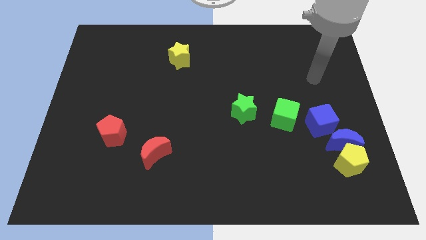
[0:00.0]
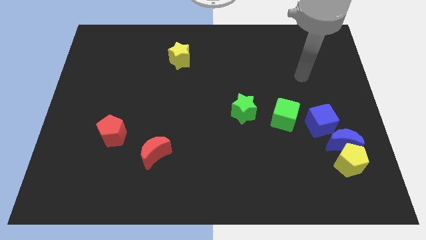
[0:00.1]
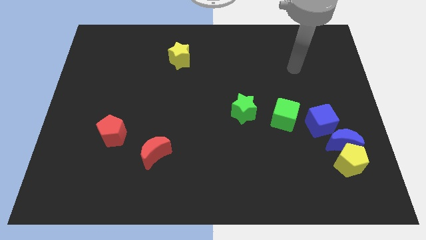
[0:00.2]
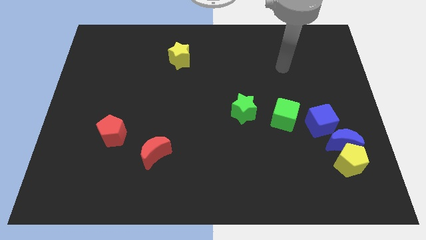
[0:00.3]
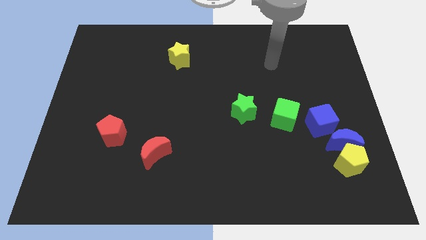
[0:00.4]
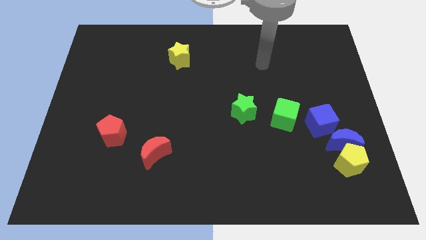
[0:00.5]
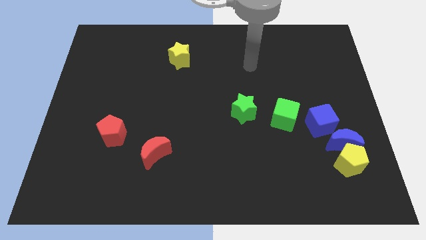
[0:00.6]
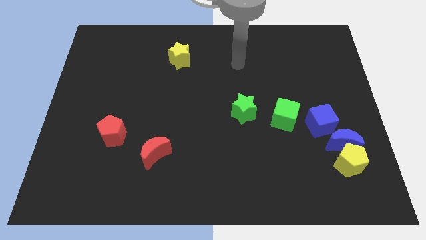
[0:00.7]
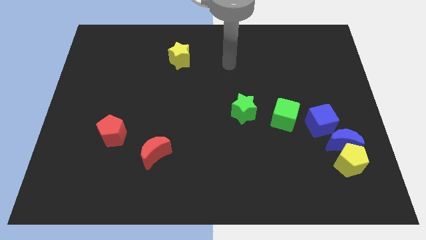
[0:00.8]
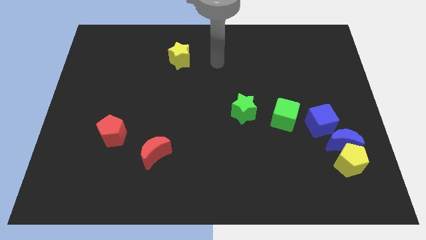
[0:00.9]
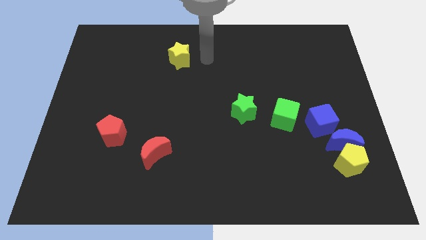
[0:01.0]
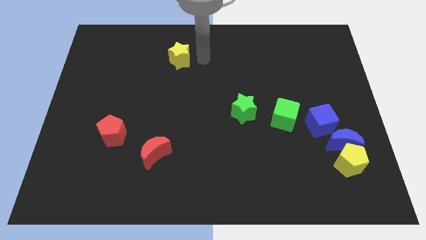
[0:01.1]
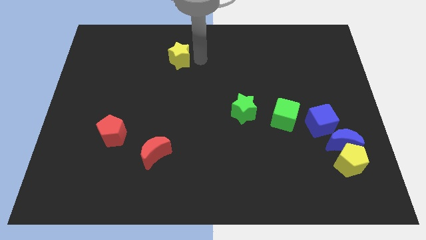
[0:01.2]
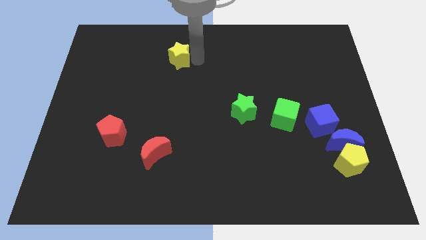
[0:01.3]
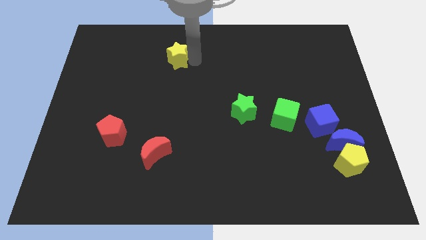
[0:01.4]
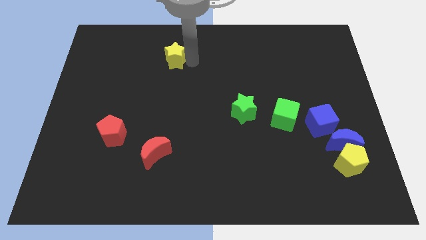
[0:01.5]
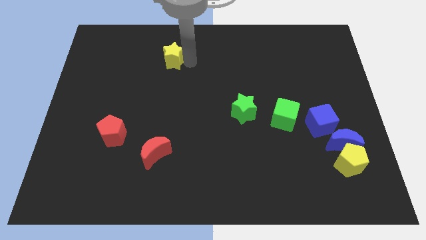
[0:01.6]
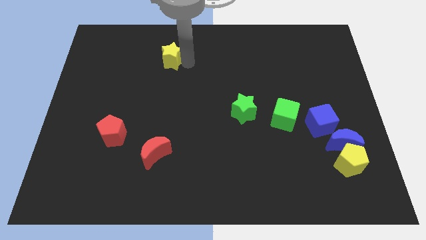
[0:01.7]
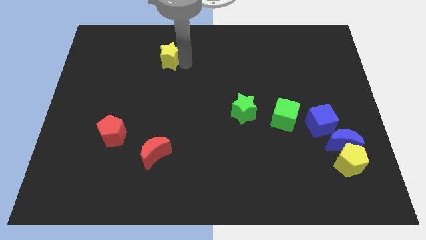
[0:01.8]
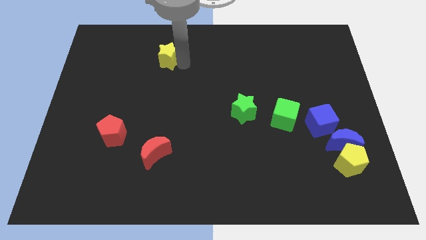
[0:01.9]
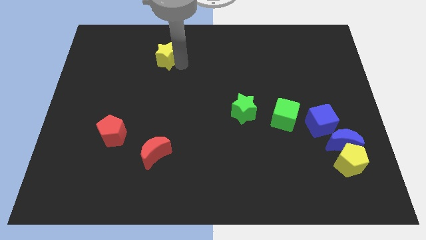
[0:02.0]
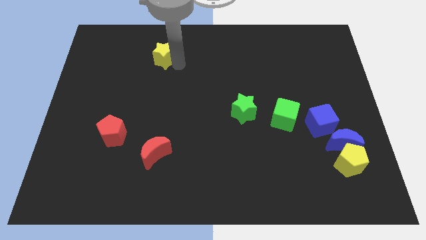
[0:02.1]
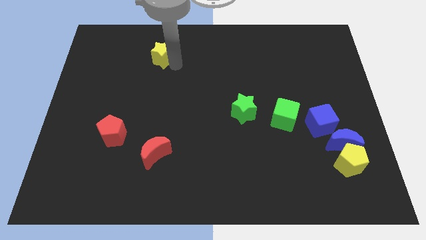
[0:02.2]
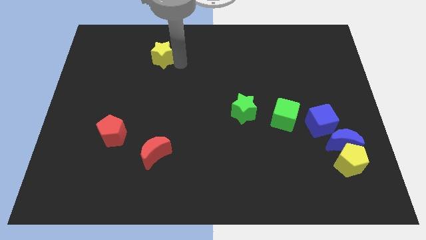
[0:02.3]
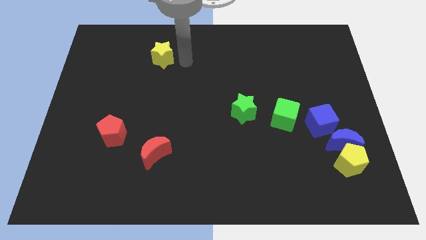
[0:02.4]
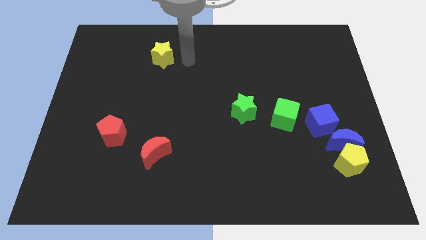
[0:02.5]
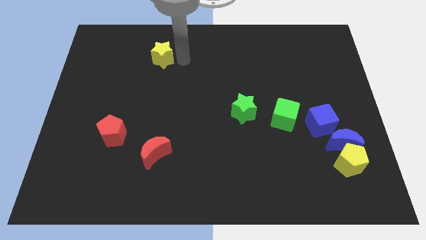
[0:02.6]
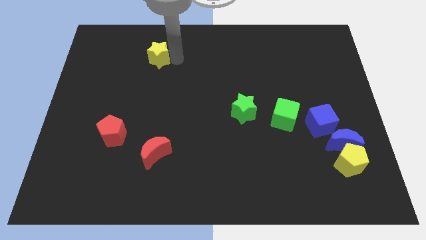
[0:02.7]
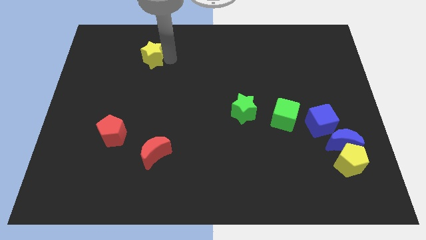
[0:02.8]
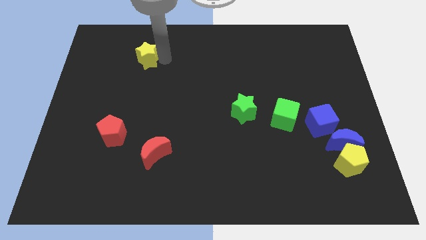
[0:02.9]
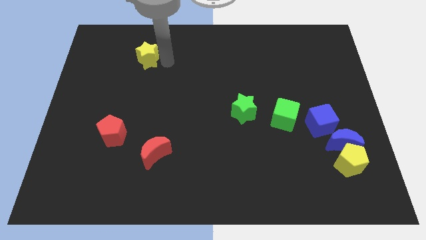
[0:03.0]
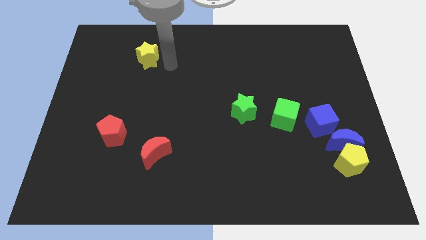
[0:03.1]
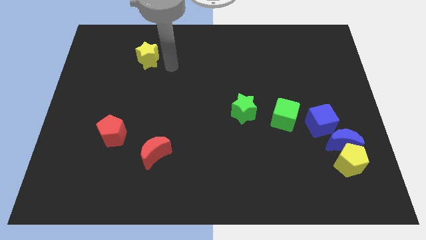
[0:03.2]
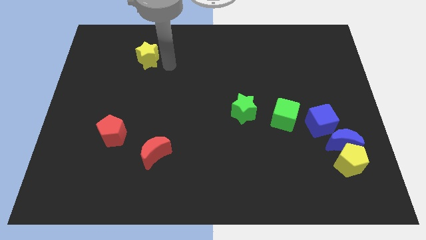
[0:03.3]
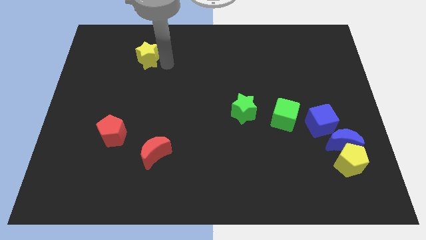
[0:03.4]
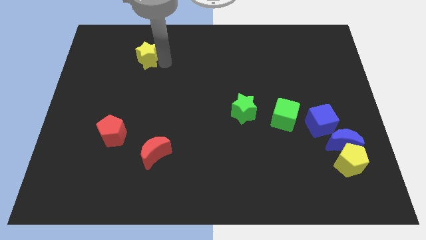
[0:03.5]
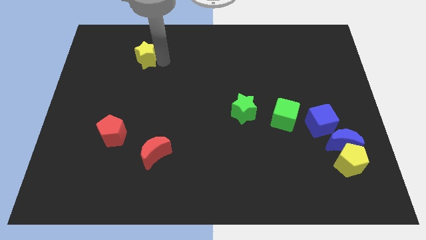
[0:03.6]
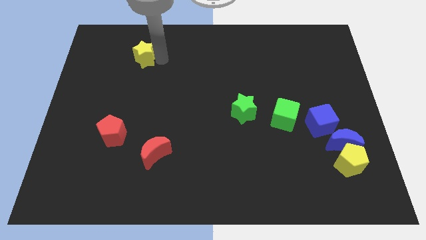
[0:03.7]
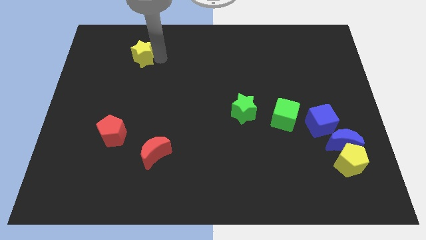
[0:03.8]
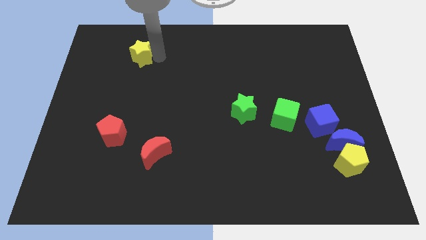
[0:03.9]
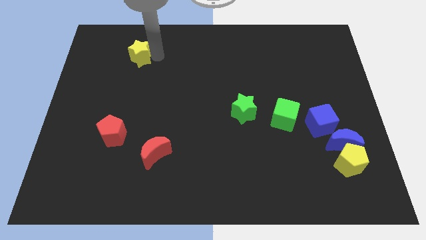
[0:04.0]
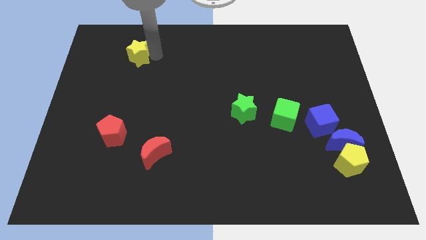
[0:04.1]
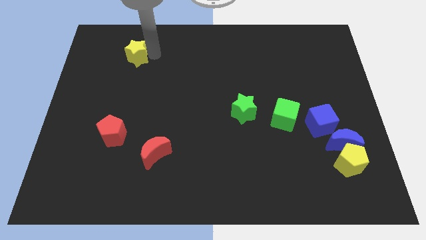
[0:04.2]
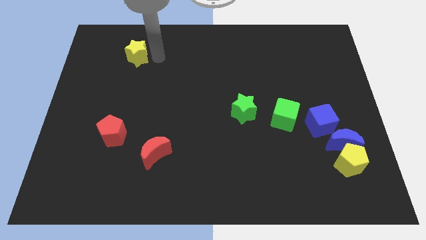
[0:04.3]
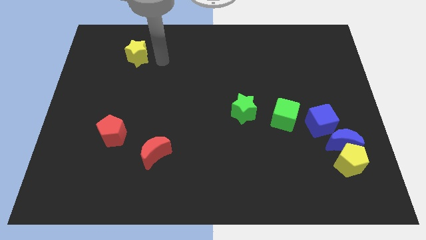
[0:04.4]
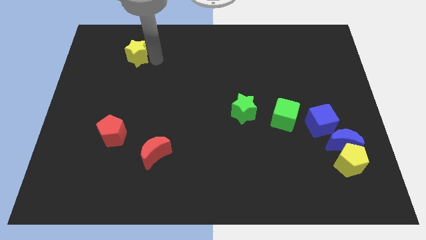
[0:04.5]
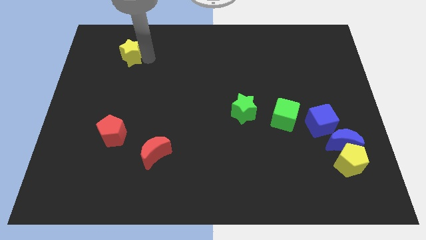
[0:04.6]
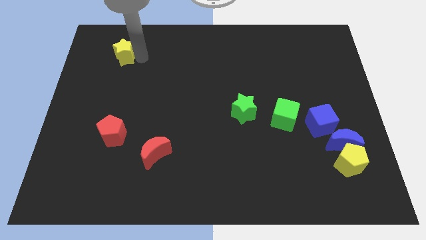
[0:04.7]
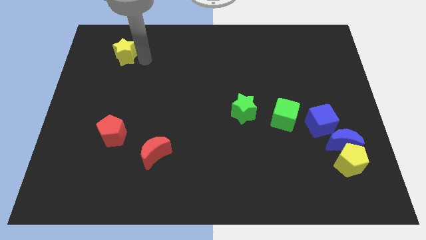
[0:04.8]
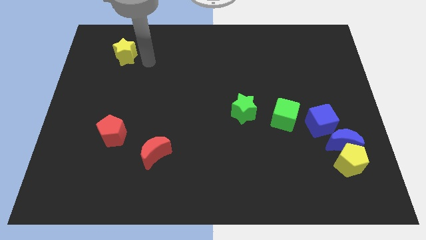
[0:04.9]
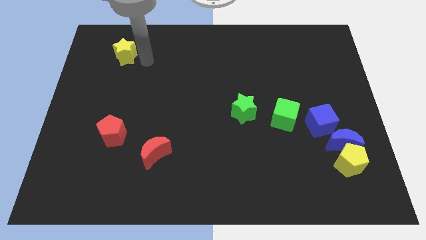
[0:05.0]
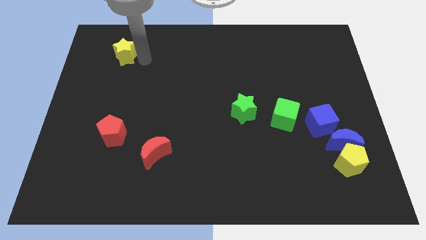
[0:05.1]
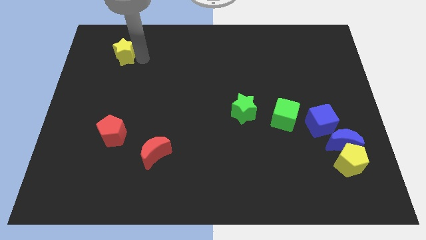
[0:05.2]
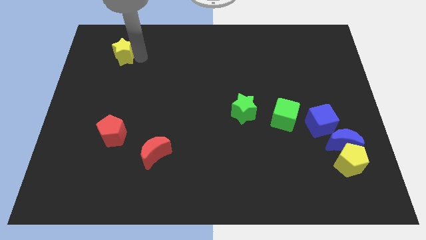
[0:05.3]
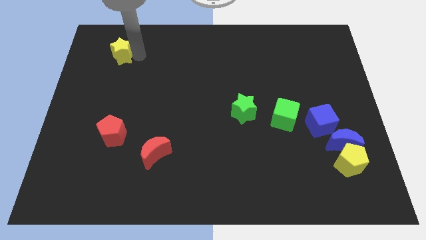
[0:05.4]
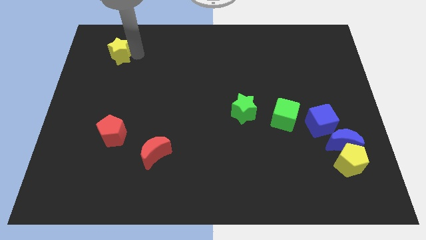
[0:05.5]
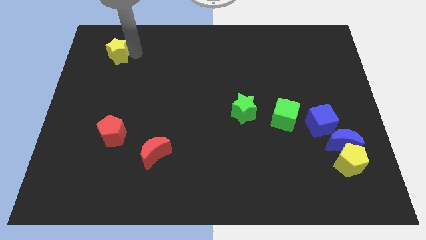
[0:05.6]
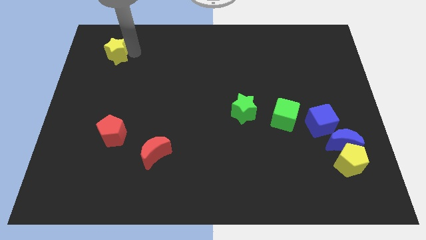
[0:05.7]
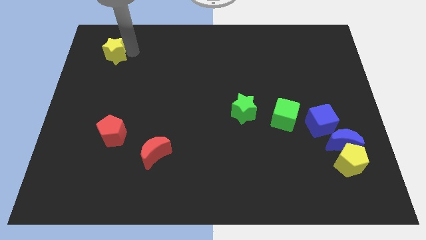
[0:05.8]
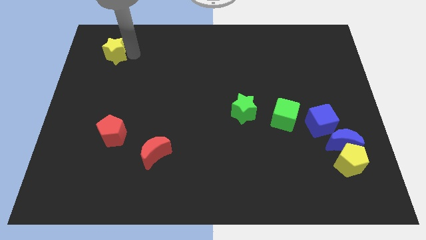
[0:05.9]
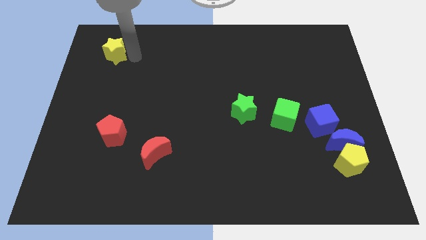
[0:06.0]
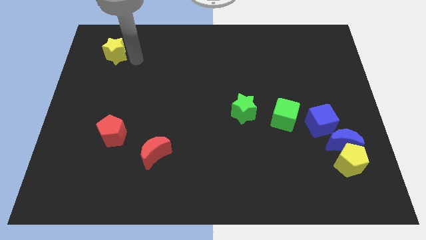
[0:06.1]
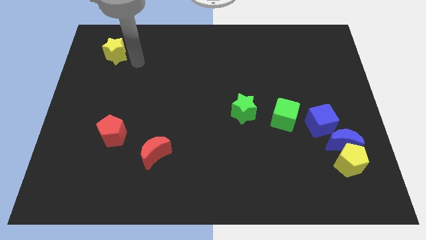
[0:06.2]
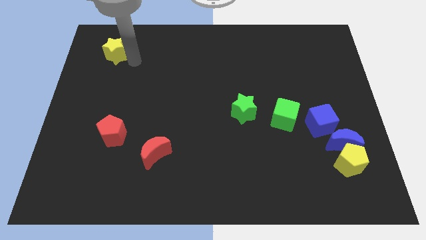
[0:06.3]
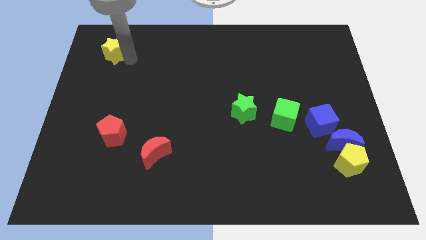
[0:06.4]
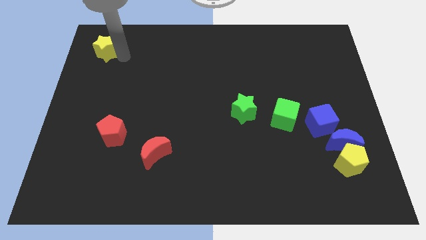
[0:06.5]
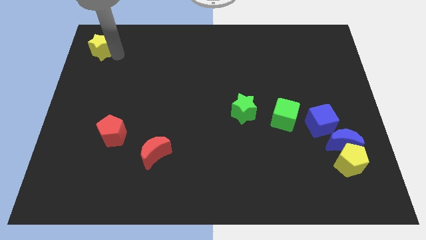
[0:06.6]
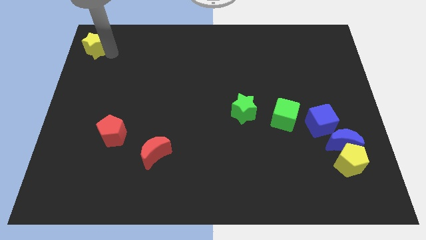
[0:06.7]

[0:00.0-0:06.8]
move the yellow star to the upper left corner
